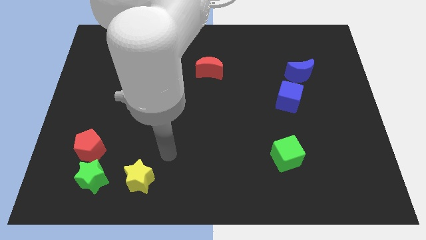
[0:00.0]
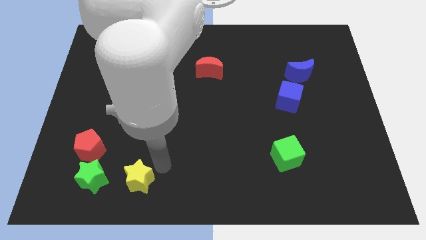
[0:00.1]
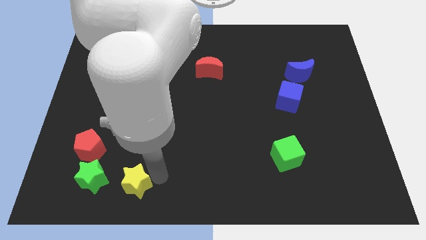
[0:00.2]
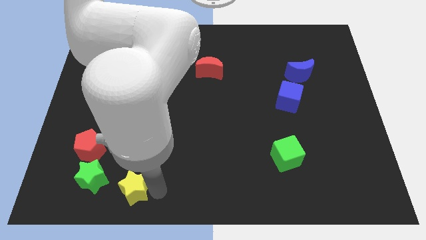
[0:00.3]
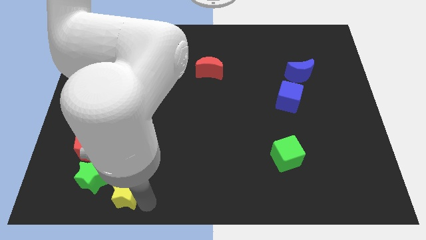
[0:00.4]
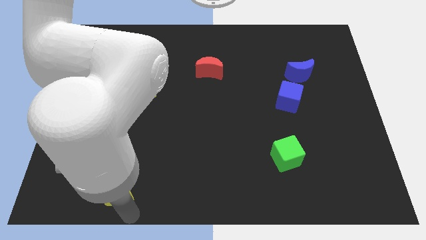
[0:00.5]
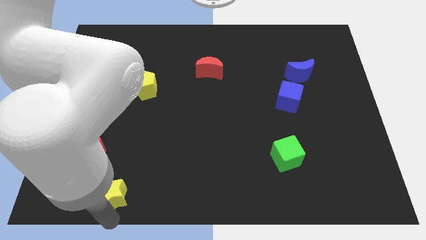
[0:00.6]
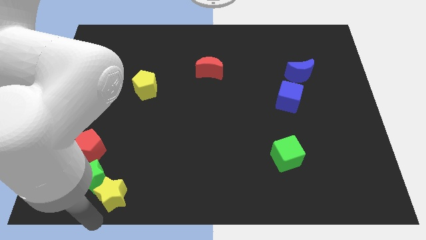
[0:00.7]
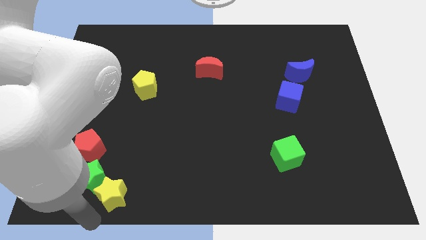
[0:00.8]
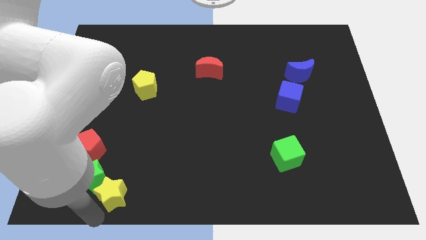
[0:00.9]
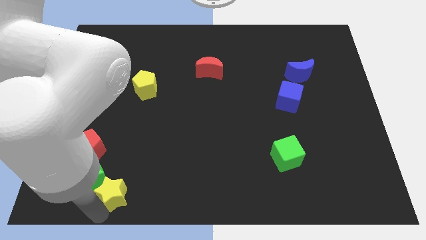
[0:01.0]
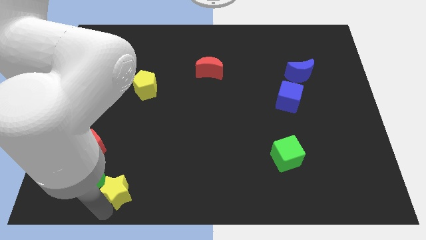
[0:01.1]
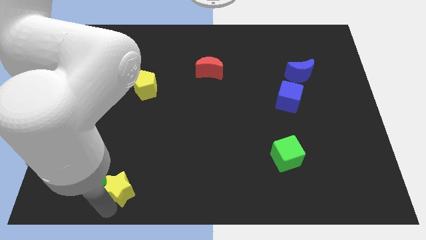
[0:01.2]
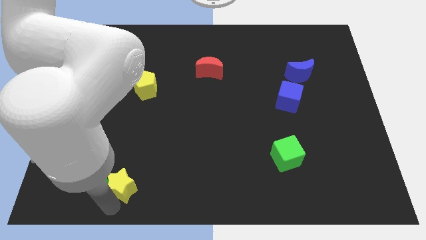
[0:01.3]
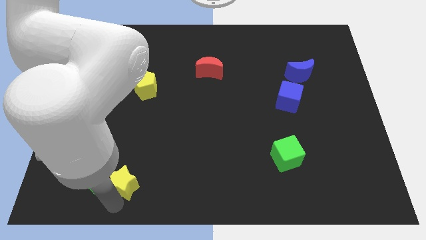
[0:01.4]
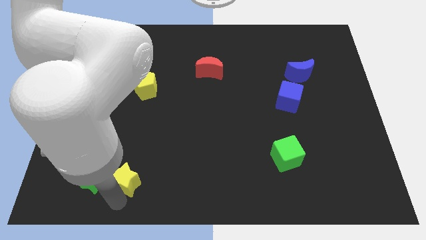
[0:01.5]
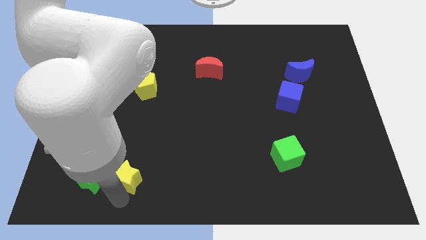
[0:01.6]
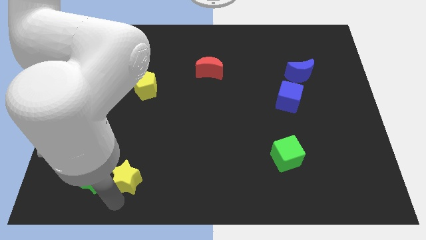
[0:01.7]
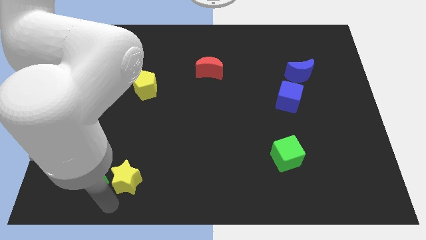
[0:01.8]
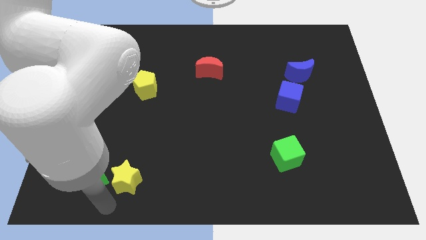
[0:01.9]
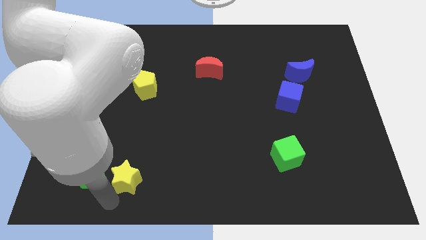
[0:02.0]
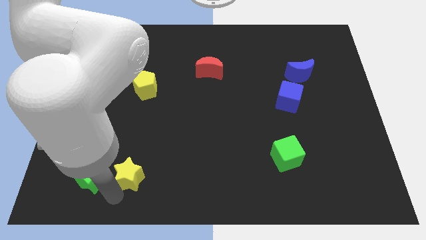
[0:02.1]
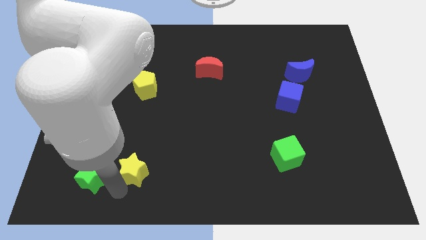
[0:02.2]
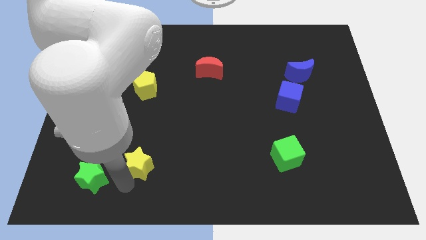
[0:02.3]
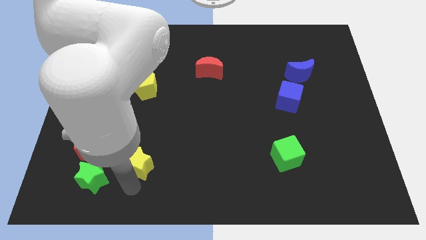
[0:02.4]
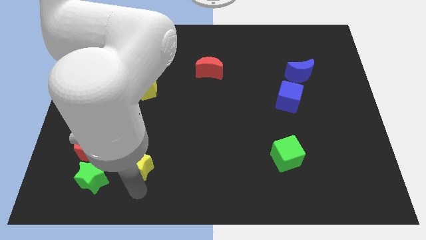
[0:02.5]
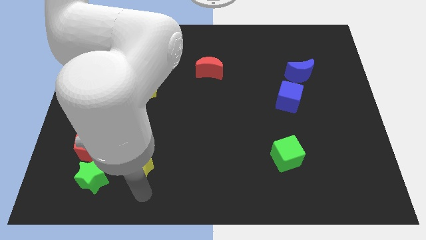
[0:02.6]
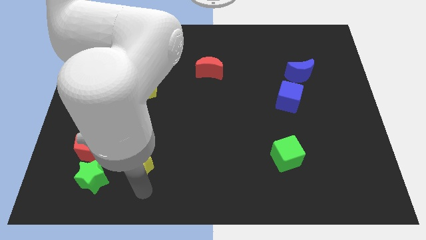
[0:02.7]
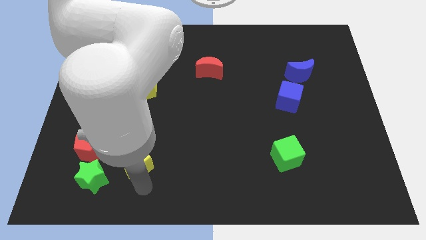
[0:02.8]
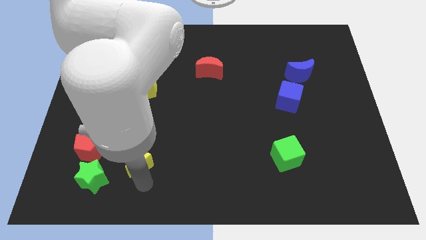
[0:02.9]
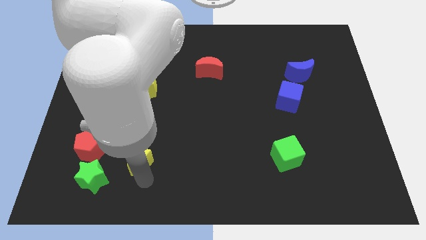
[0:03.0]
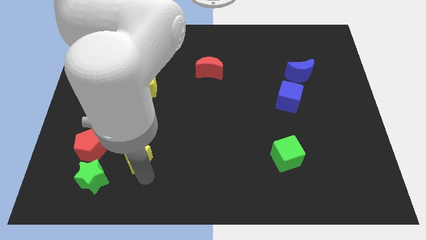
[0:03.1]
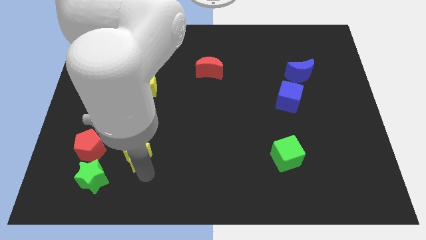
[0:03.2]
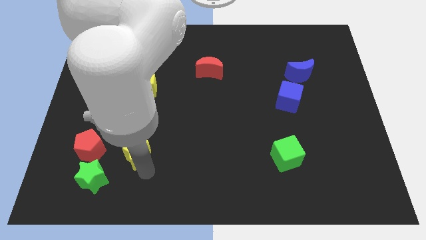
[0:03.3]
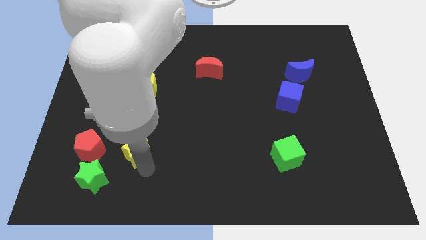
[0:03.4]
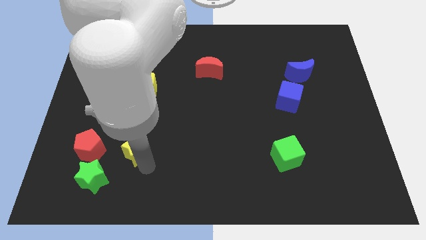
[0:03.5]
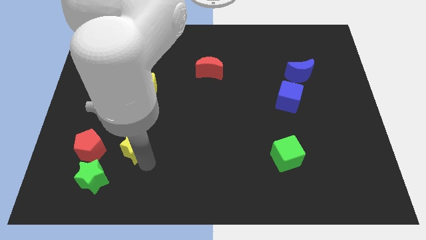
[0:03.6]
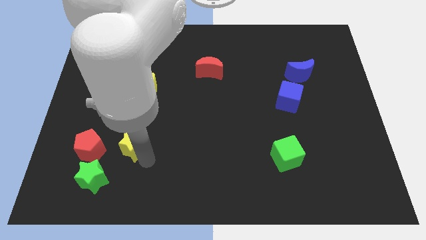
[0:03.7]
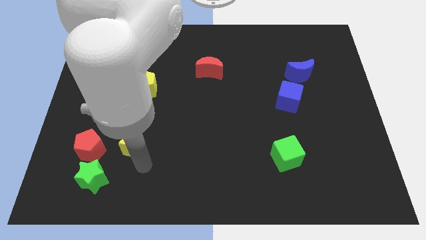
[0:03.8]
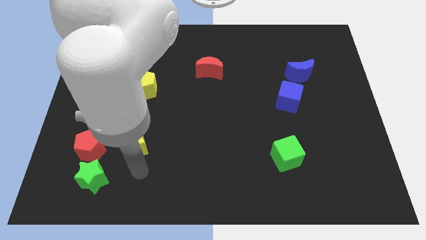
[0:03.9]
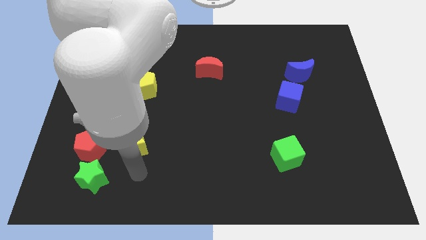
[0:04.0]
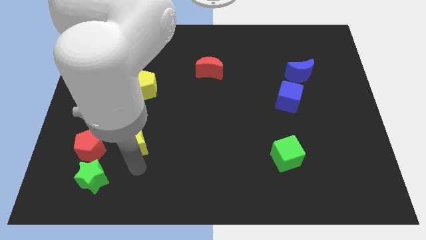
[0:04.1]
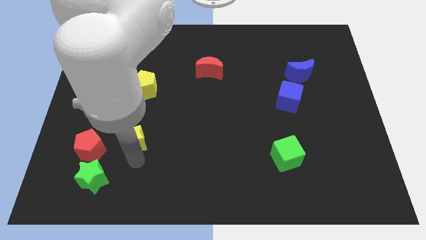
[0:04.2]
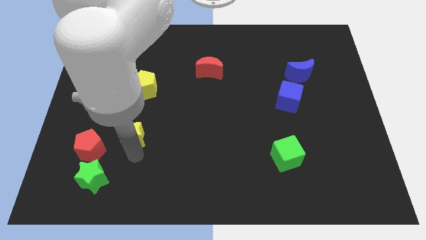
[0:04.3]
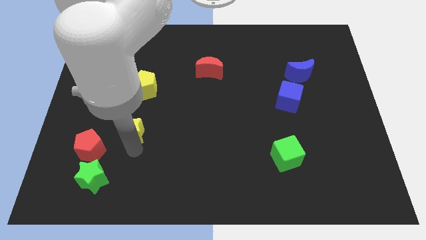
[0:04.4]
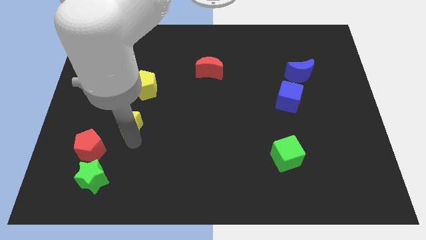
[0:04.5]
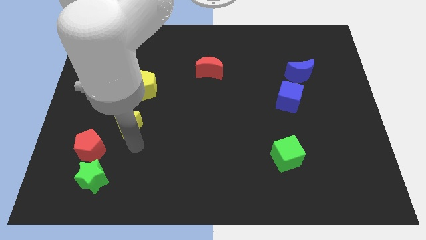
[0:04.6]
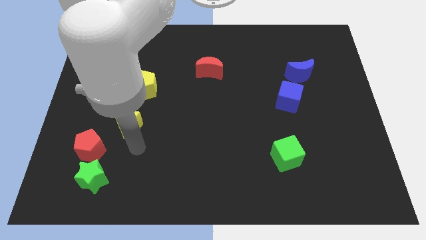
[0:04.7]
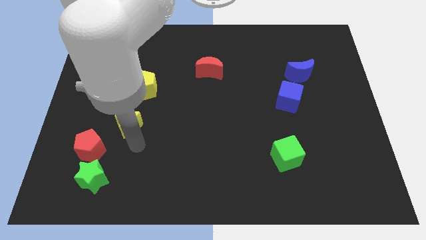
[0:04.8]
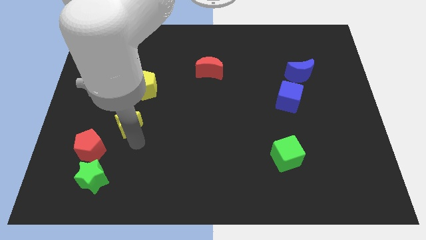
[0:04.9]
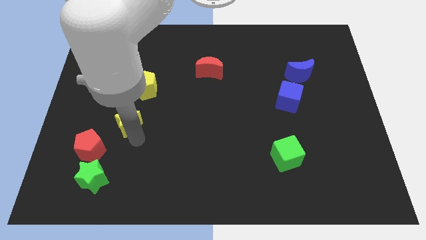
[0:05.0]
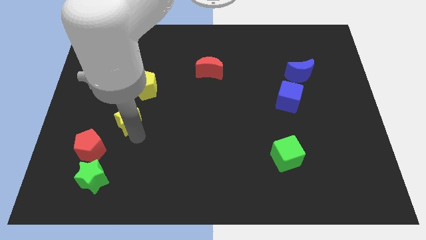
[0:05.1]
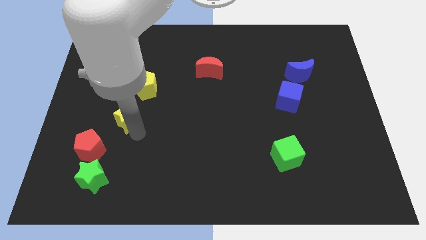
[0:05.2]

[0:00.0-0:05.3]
push the yellow star diagonally down and to the left of the yellow pentagon

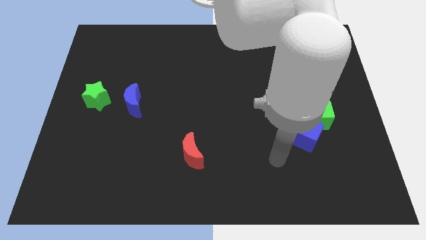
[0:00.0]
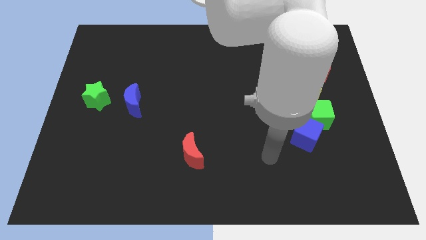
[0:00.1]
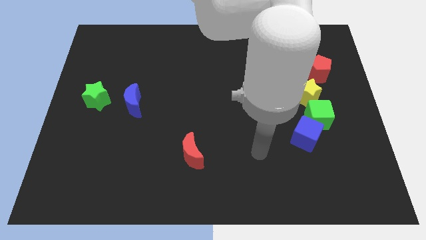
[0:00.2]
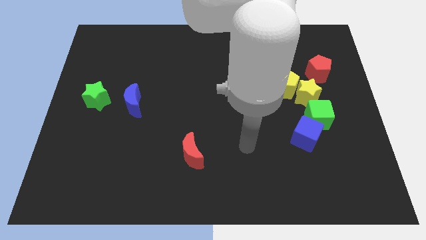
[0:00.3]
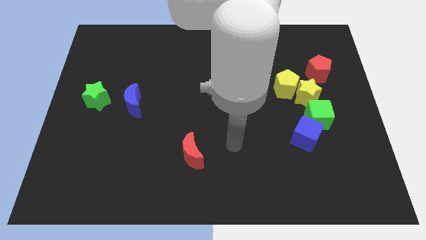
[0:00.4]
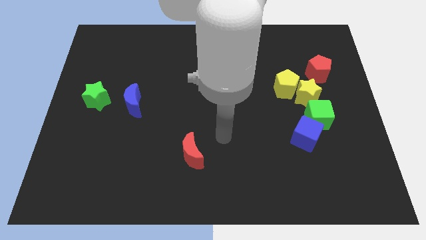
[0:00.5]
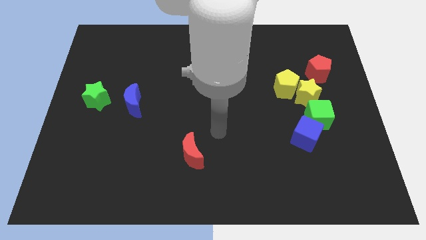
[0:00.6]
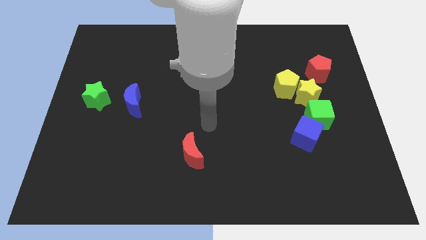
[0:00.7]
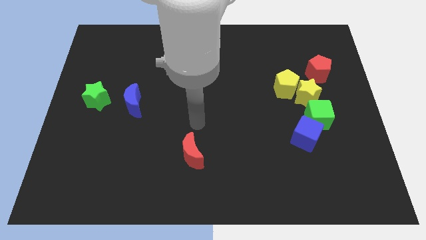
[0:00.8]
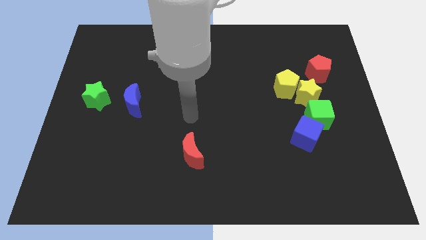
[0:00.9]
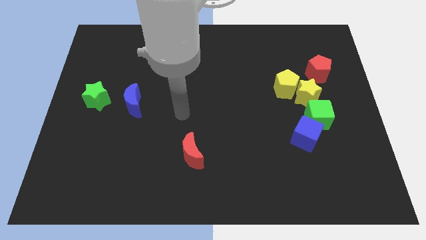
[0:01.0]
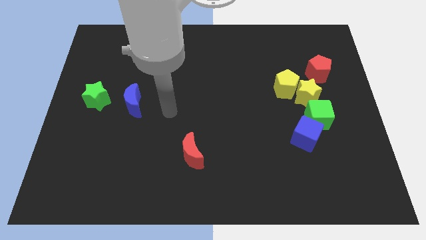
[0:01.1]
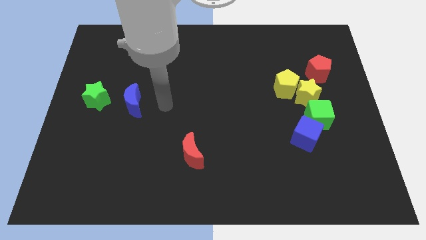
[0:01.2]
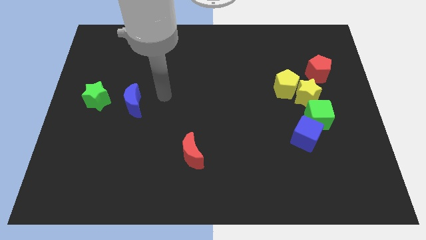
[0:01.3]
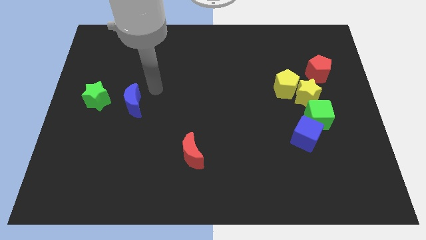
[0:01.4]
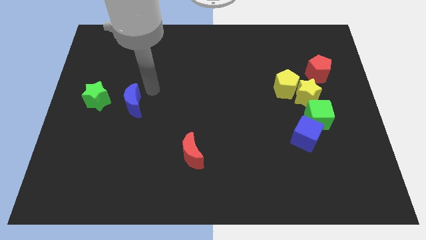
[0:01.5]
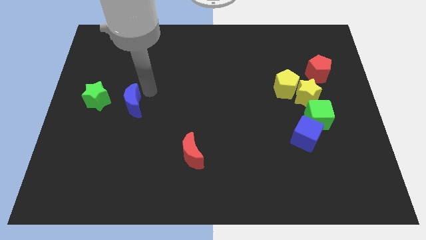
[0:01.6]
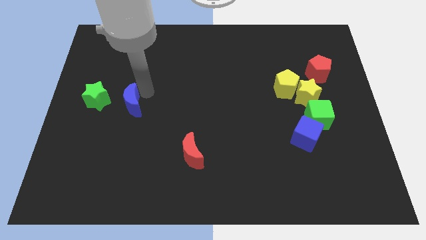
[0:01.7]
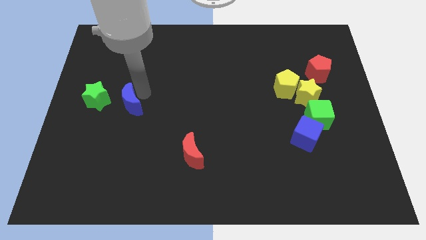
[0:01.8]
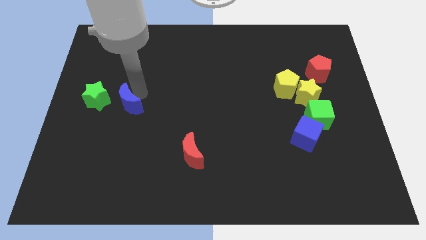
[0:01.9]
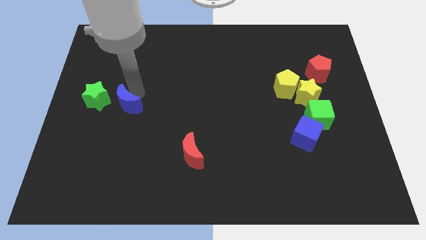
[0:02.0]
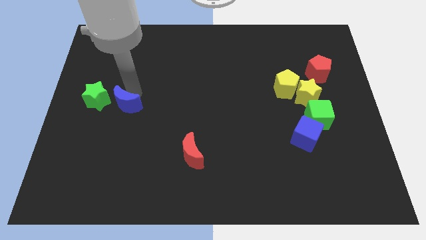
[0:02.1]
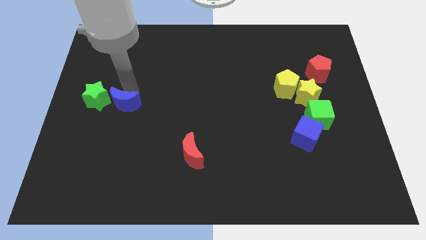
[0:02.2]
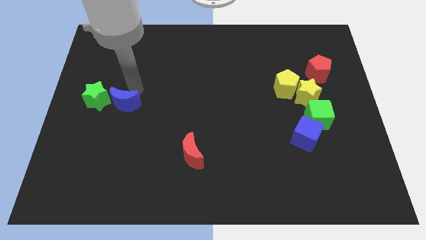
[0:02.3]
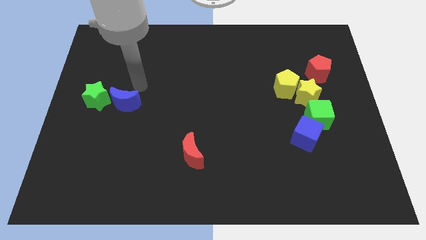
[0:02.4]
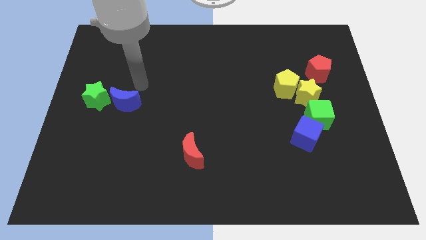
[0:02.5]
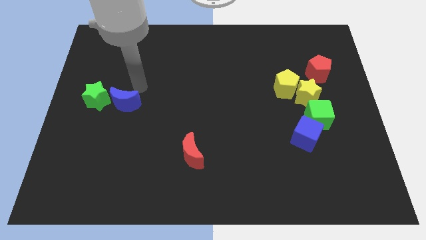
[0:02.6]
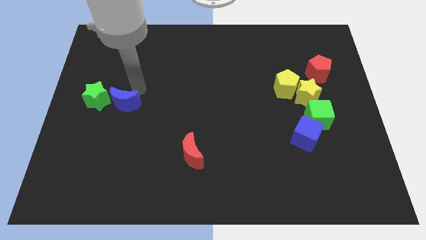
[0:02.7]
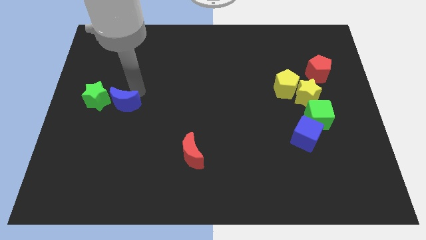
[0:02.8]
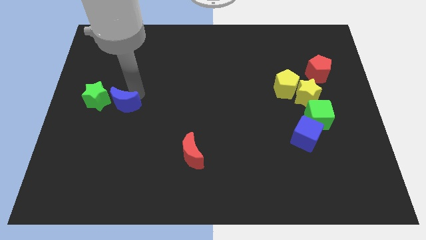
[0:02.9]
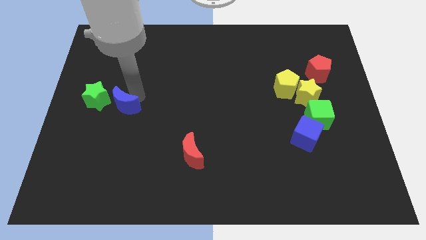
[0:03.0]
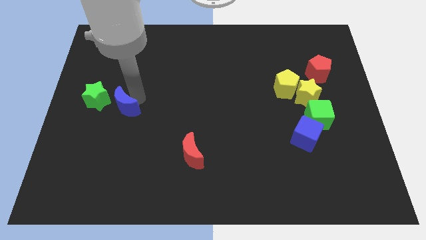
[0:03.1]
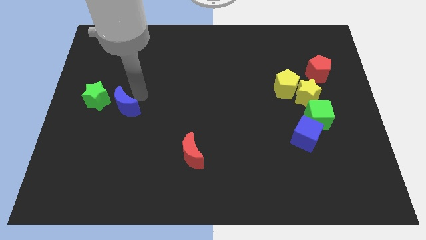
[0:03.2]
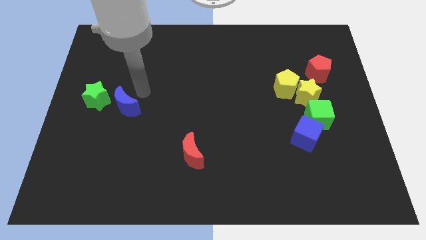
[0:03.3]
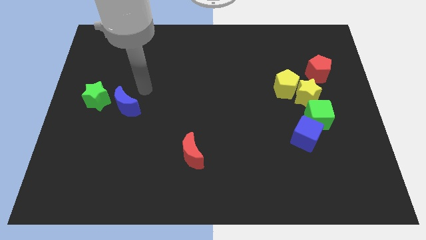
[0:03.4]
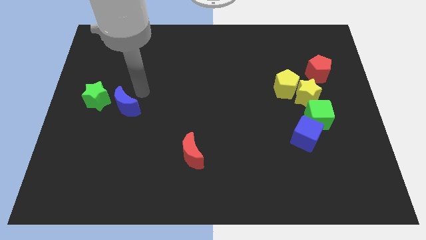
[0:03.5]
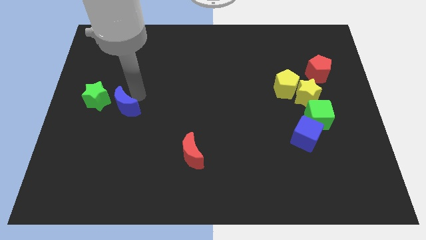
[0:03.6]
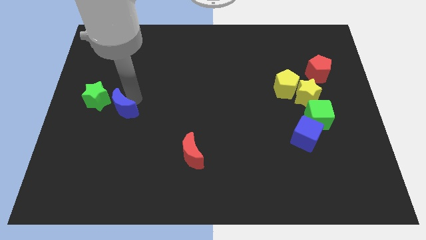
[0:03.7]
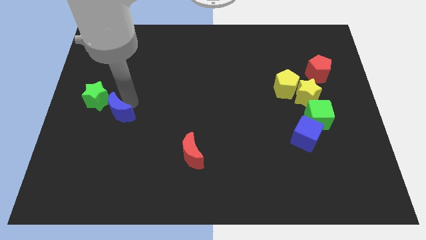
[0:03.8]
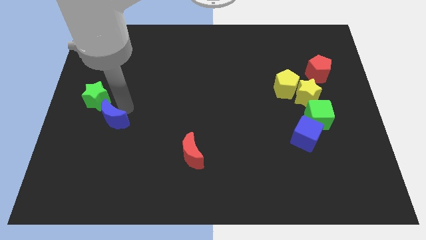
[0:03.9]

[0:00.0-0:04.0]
push the blue moon to the bottom of the green star
